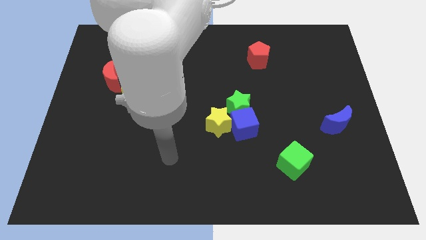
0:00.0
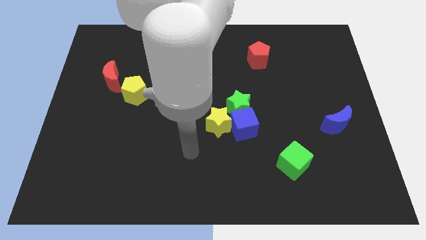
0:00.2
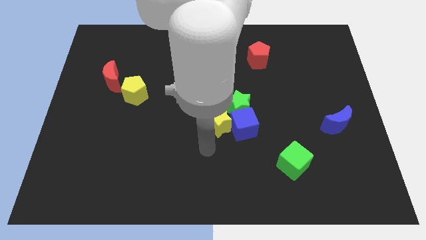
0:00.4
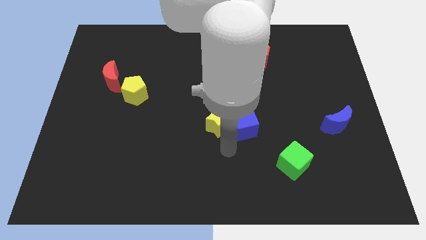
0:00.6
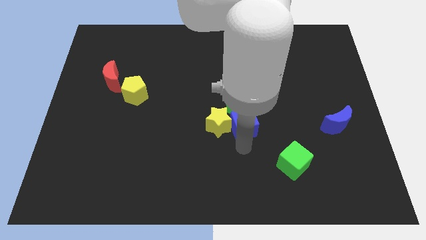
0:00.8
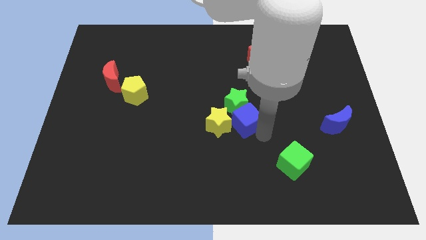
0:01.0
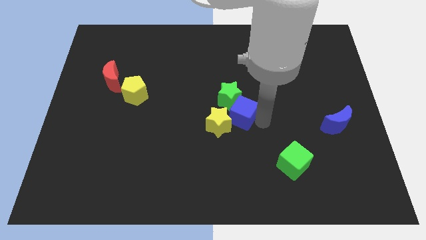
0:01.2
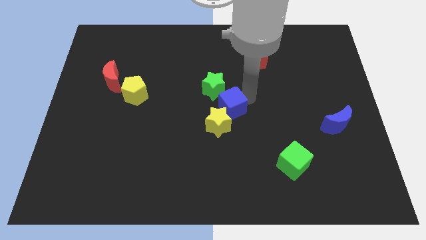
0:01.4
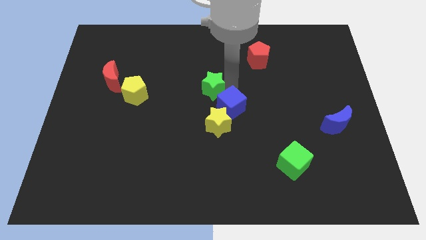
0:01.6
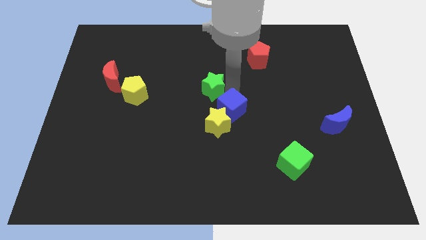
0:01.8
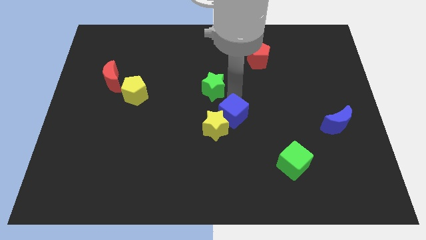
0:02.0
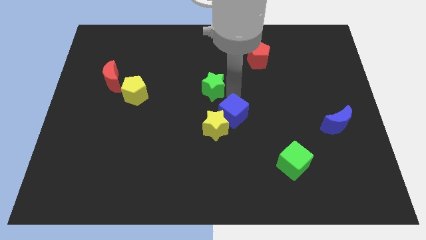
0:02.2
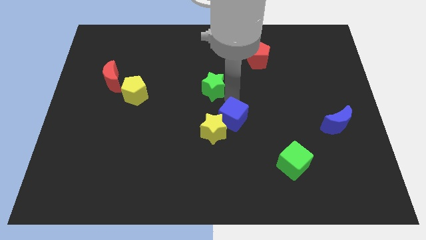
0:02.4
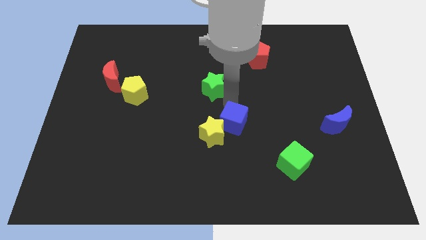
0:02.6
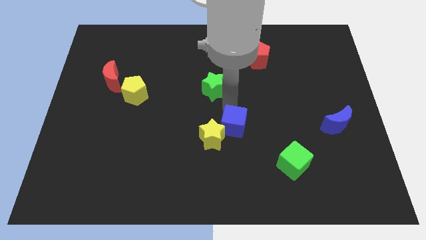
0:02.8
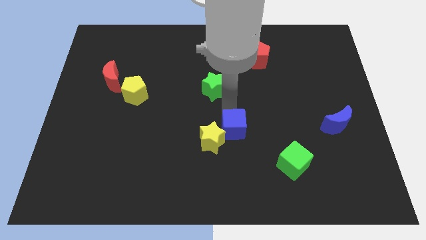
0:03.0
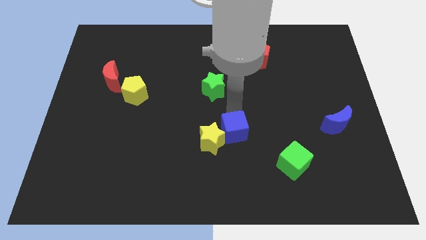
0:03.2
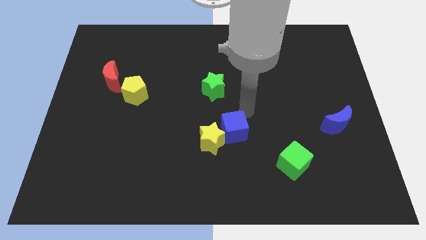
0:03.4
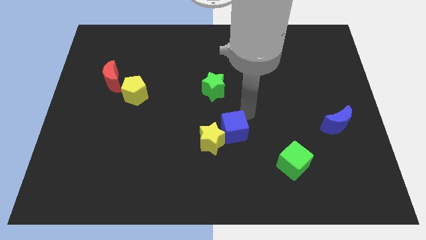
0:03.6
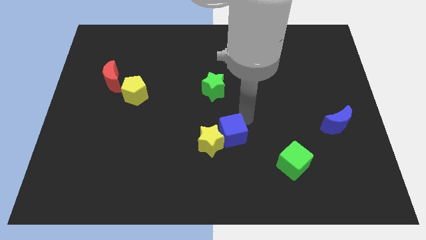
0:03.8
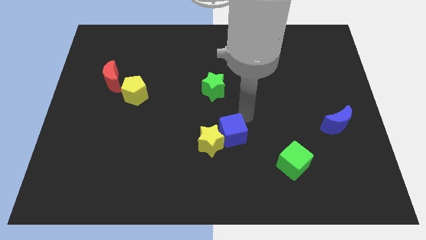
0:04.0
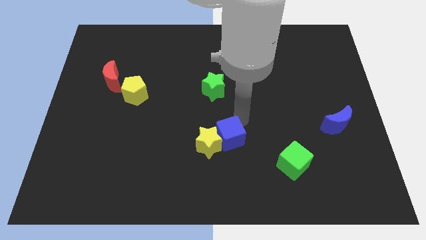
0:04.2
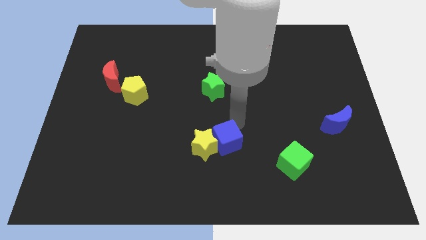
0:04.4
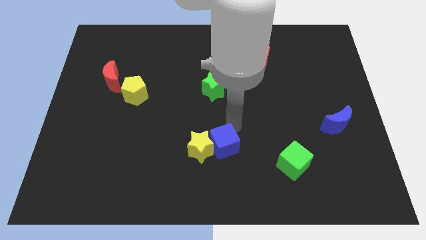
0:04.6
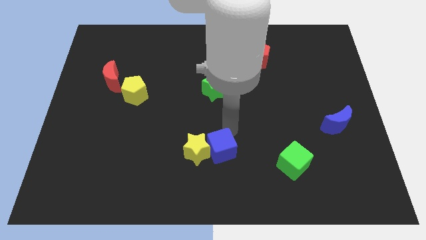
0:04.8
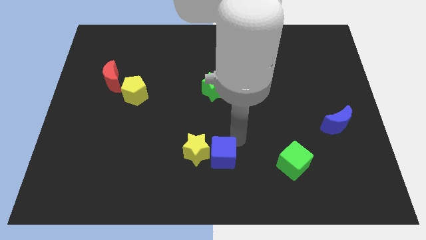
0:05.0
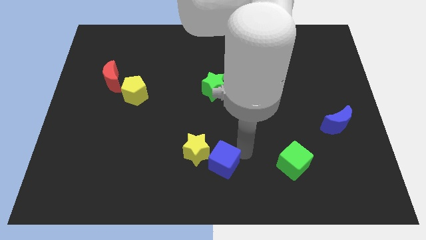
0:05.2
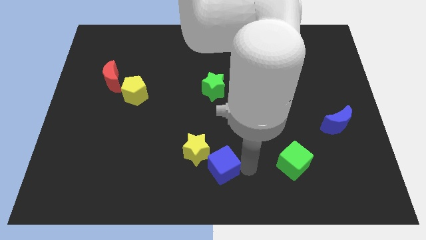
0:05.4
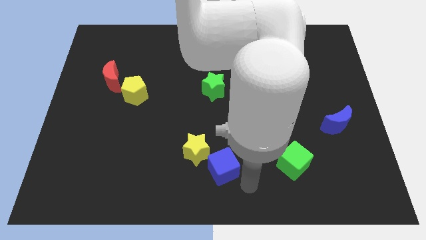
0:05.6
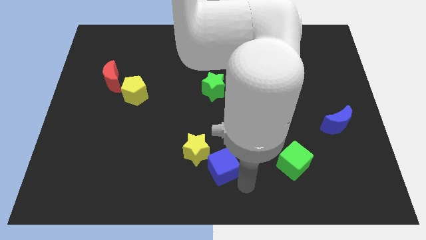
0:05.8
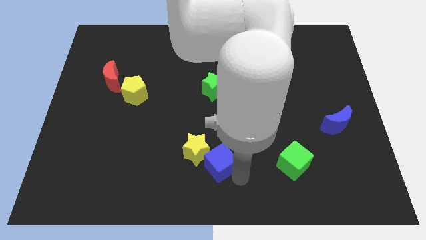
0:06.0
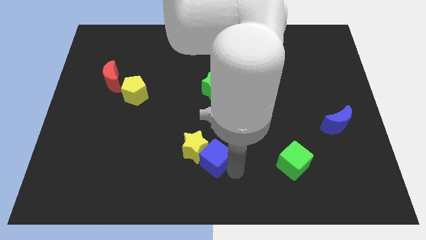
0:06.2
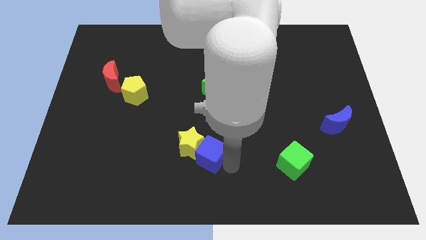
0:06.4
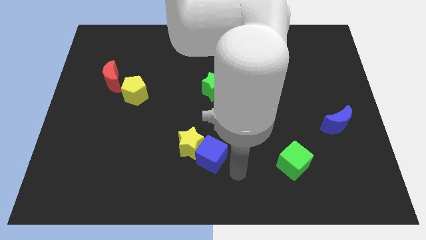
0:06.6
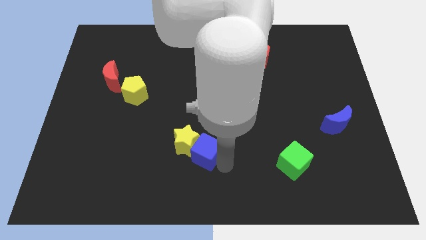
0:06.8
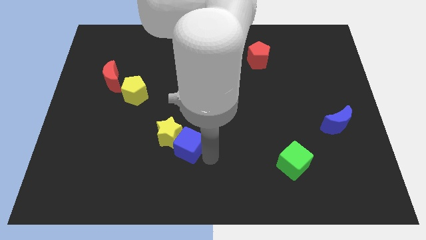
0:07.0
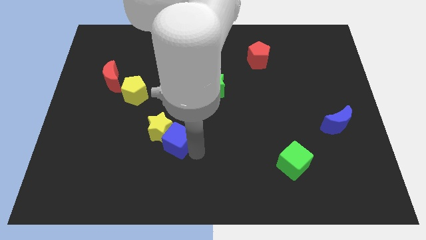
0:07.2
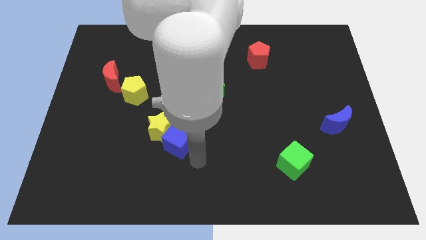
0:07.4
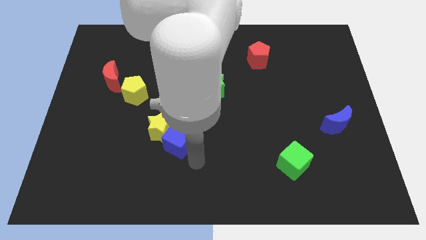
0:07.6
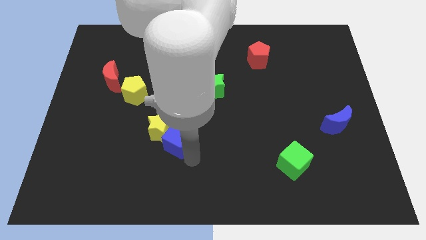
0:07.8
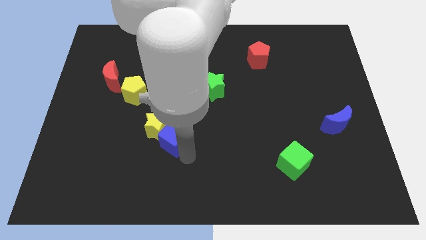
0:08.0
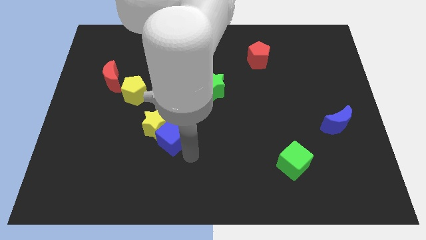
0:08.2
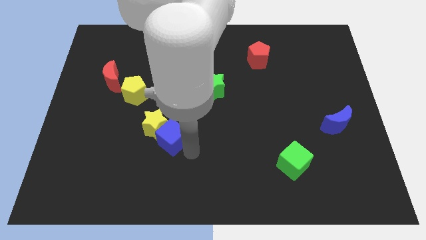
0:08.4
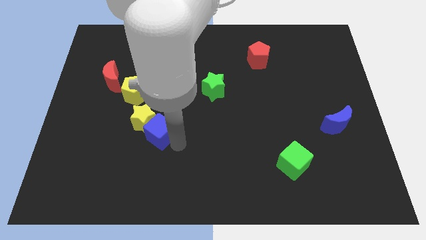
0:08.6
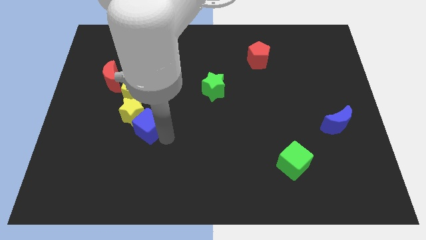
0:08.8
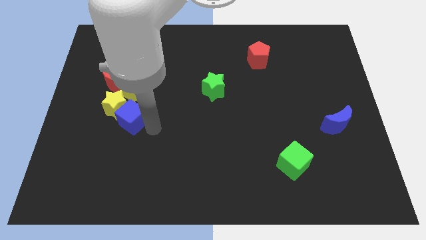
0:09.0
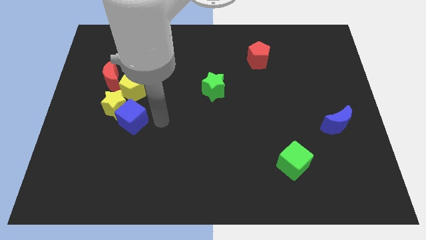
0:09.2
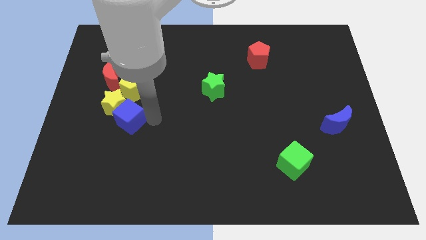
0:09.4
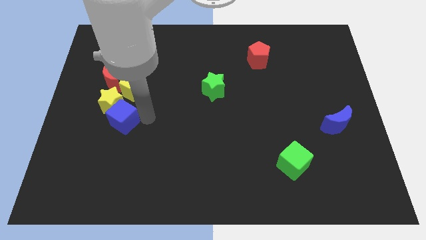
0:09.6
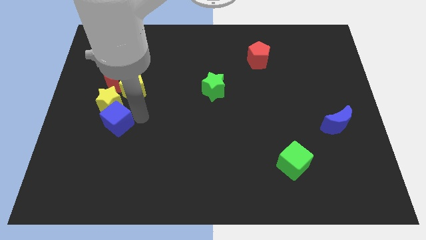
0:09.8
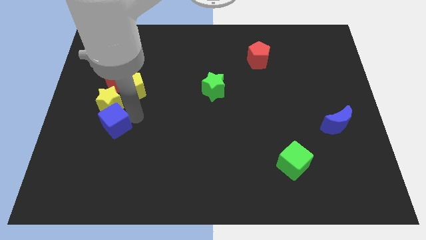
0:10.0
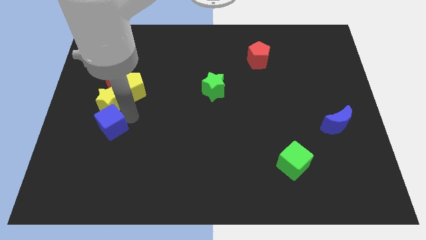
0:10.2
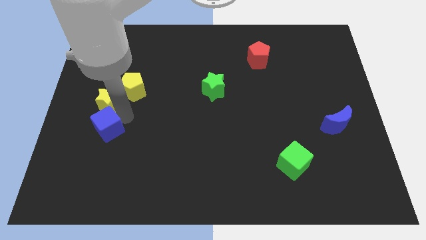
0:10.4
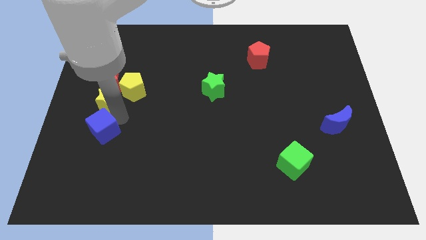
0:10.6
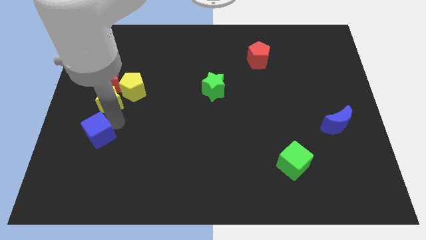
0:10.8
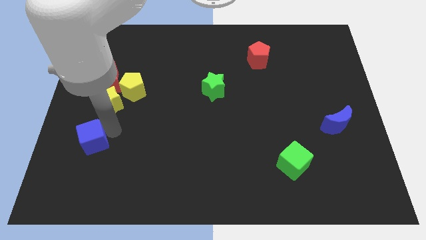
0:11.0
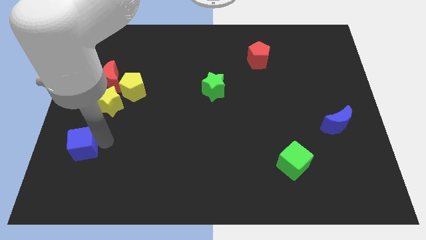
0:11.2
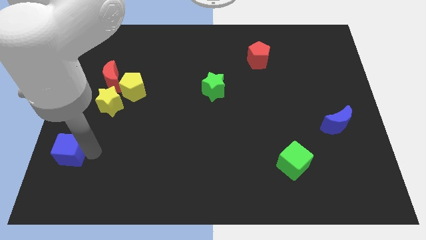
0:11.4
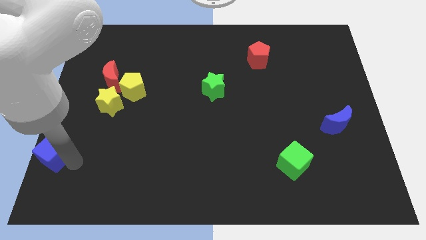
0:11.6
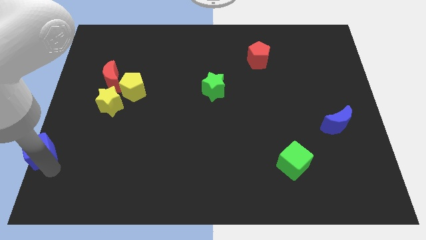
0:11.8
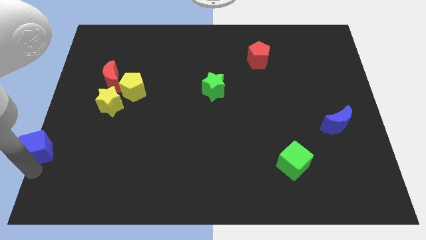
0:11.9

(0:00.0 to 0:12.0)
put the blue cube to the left side
